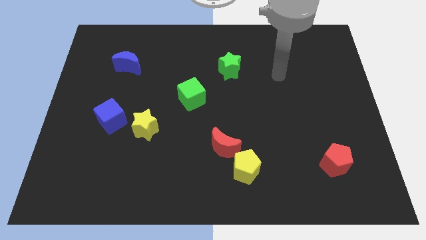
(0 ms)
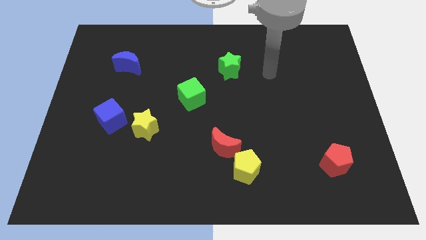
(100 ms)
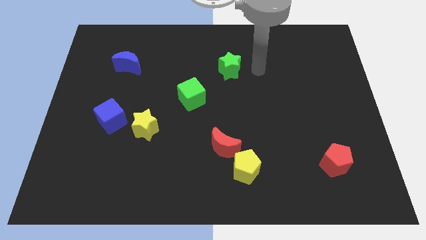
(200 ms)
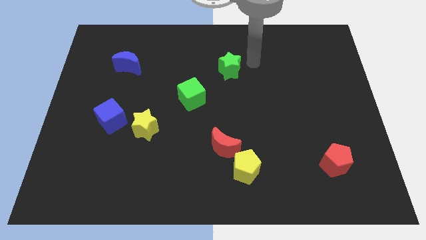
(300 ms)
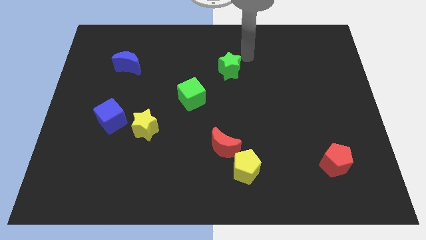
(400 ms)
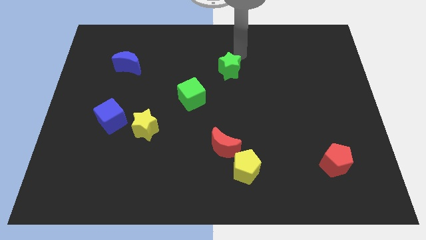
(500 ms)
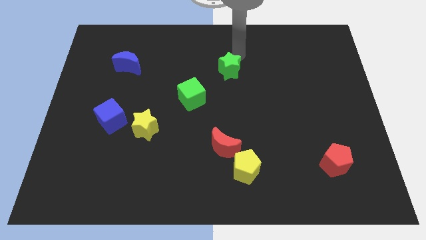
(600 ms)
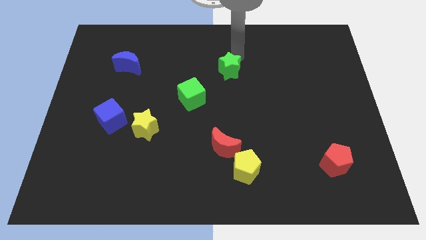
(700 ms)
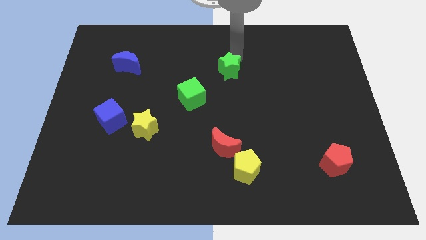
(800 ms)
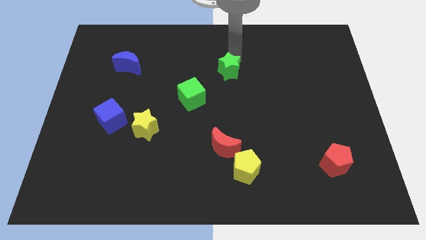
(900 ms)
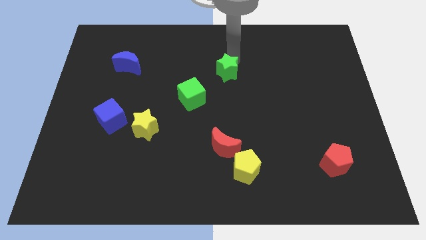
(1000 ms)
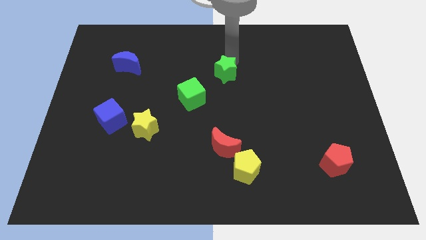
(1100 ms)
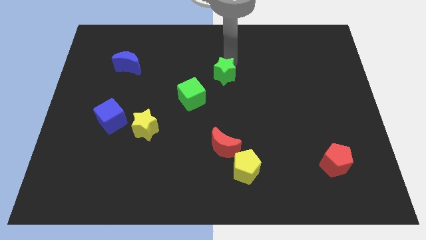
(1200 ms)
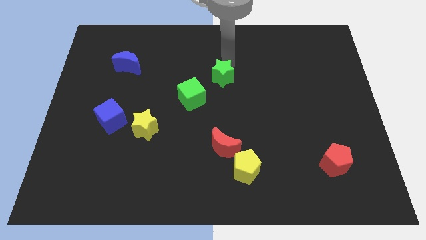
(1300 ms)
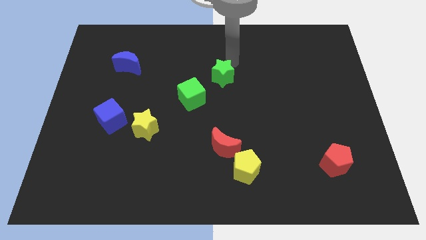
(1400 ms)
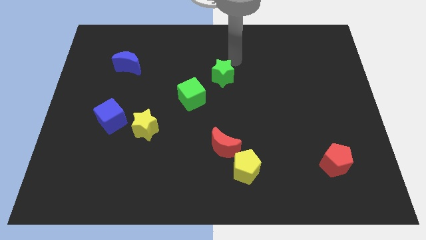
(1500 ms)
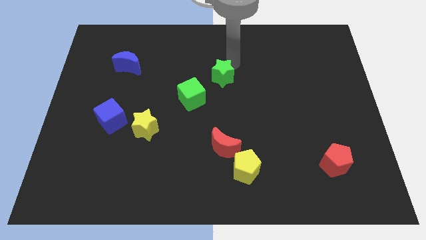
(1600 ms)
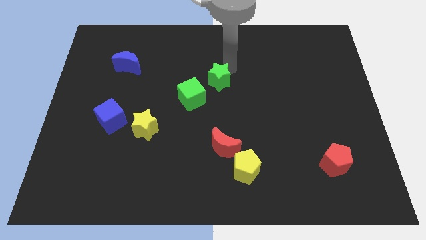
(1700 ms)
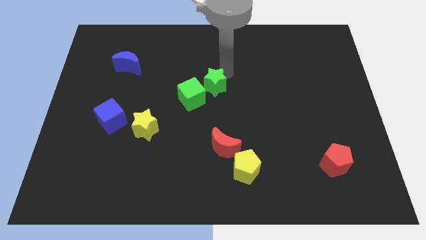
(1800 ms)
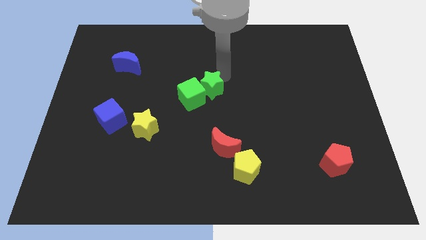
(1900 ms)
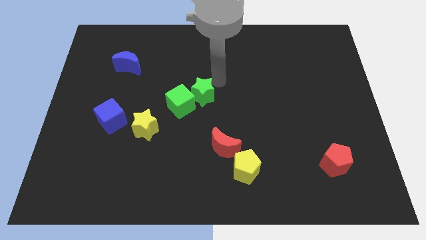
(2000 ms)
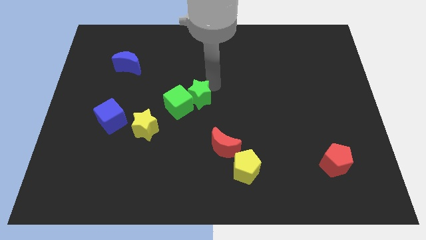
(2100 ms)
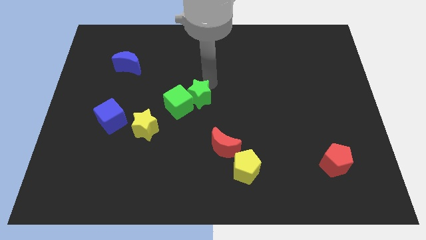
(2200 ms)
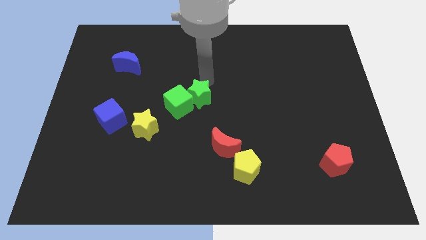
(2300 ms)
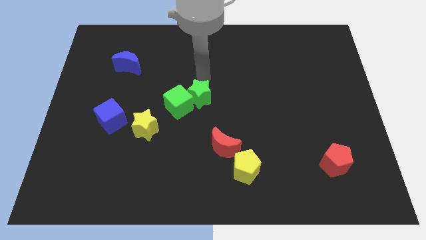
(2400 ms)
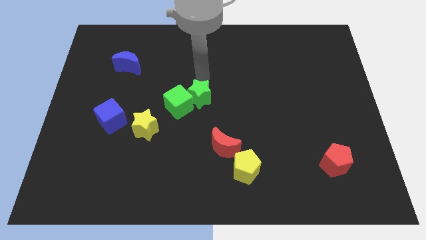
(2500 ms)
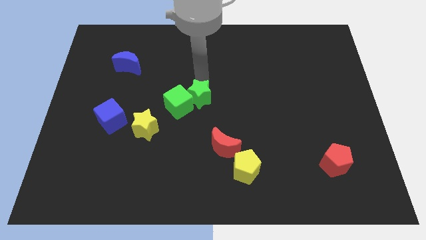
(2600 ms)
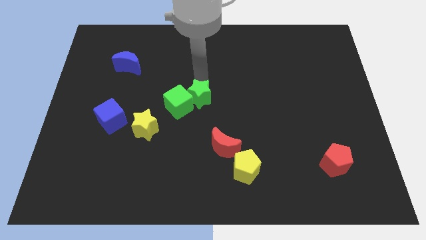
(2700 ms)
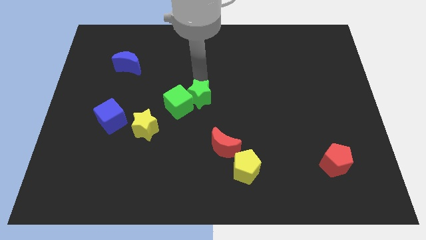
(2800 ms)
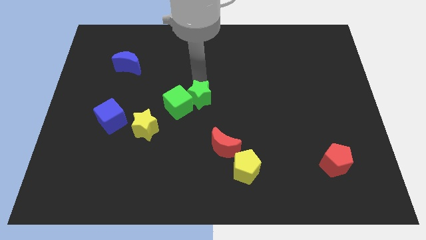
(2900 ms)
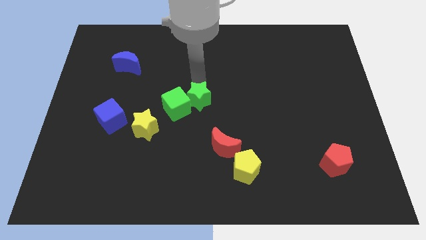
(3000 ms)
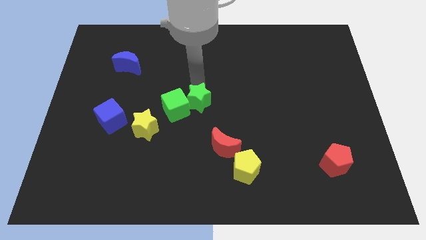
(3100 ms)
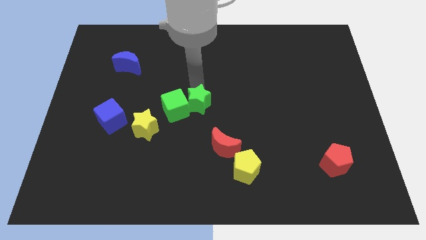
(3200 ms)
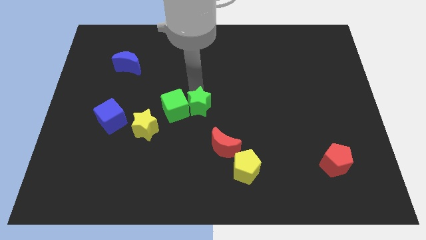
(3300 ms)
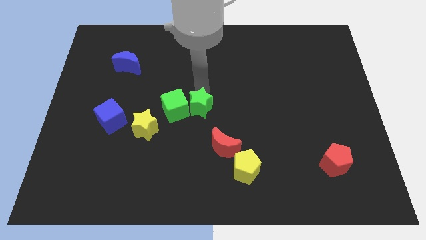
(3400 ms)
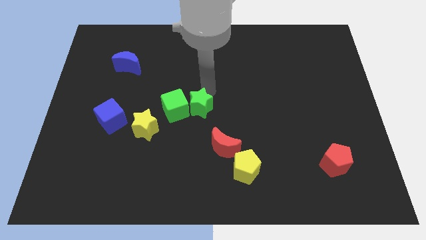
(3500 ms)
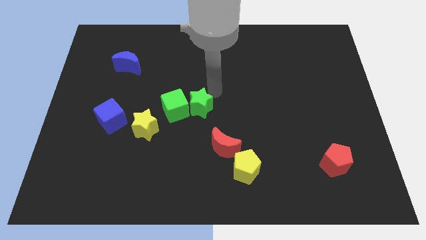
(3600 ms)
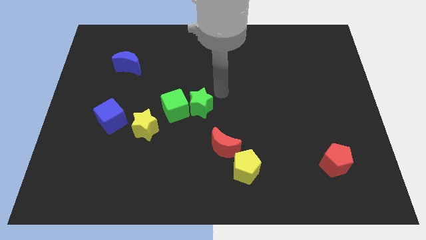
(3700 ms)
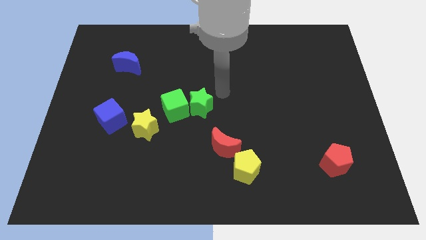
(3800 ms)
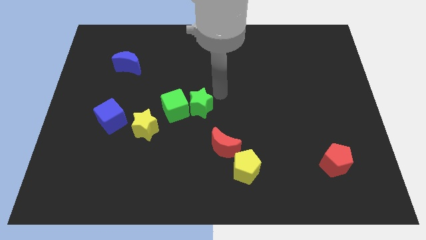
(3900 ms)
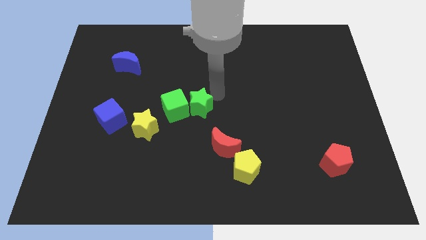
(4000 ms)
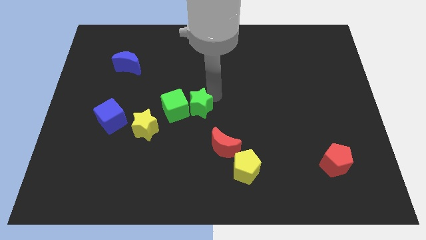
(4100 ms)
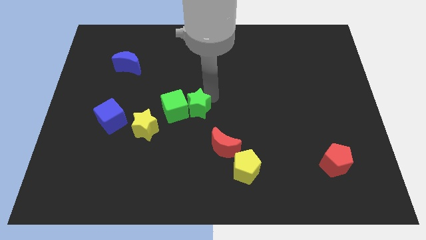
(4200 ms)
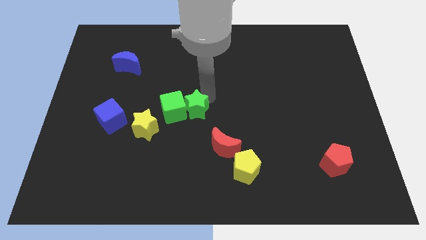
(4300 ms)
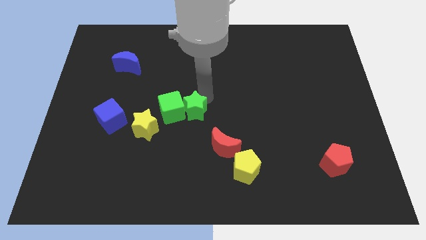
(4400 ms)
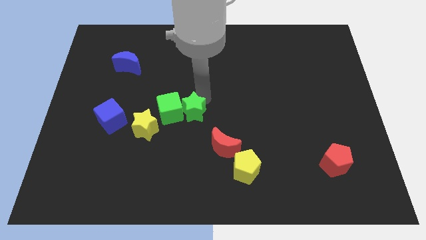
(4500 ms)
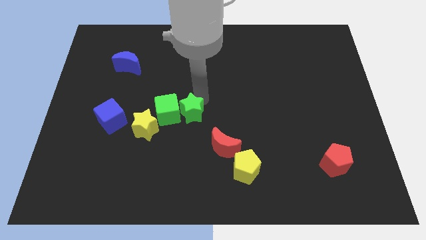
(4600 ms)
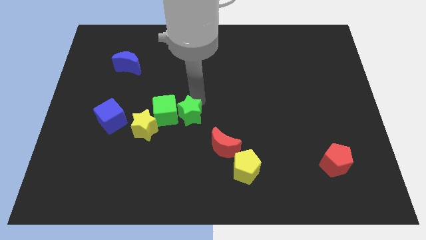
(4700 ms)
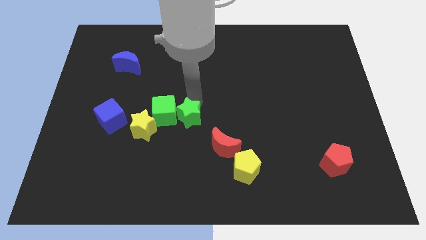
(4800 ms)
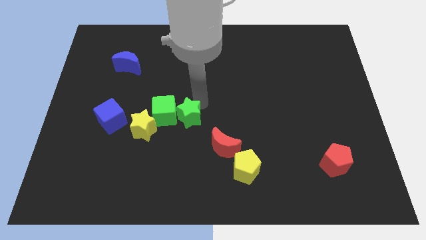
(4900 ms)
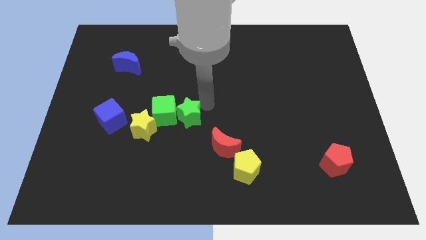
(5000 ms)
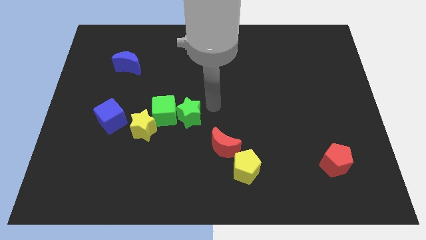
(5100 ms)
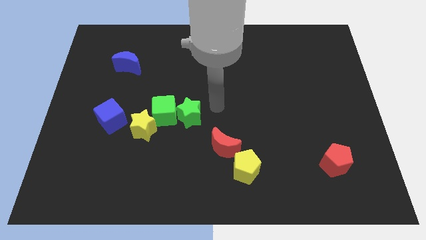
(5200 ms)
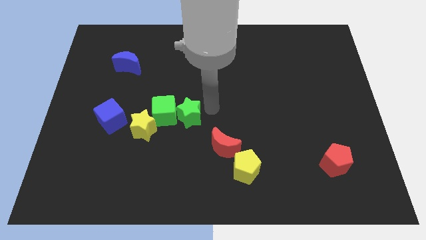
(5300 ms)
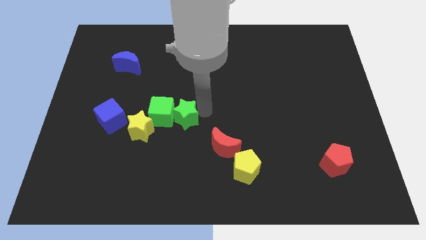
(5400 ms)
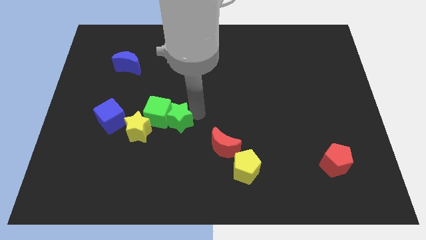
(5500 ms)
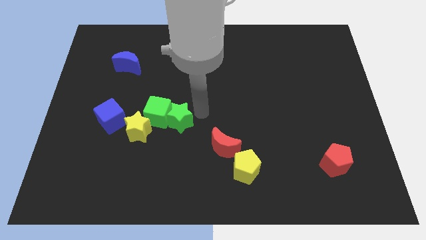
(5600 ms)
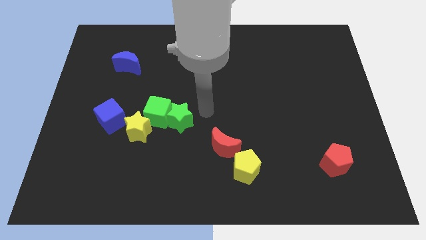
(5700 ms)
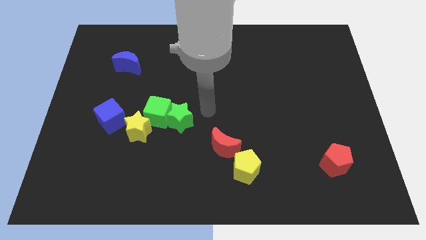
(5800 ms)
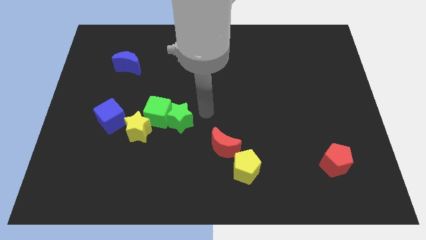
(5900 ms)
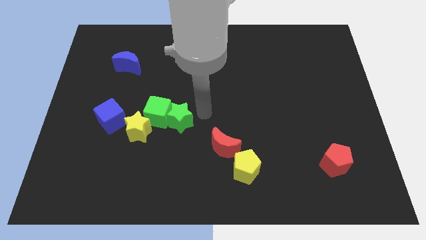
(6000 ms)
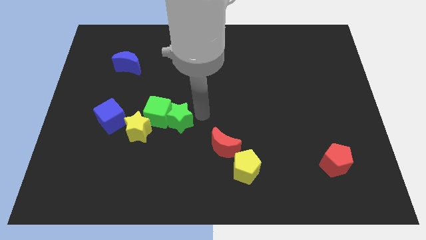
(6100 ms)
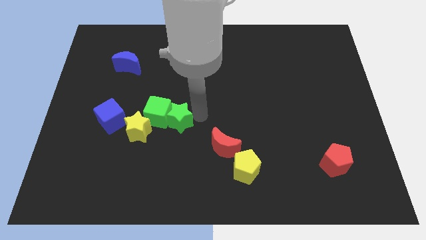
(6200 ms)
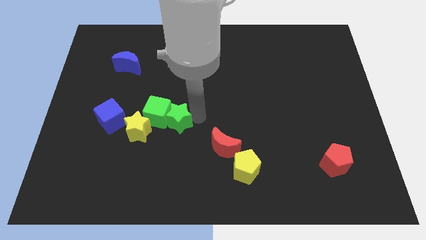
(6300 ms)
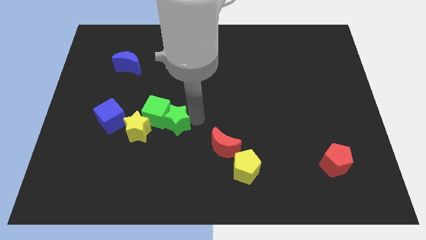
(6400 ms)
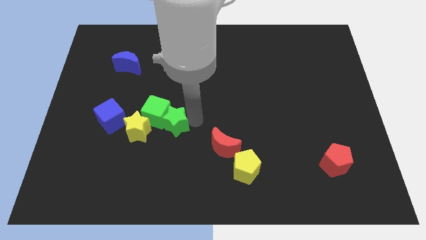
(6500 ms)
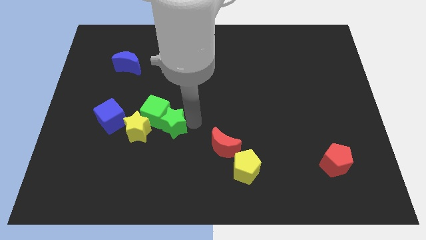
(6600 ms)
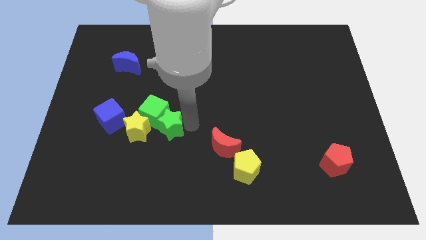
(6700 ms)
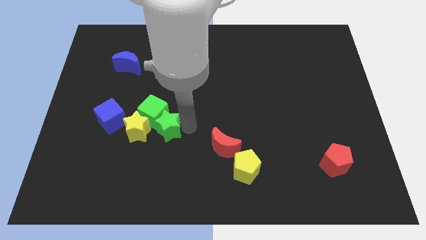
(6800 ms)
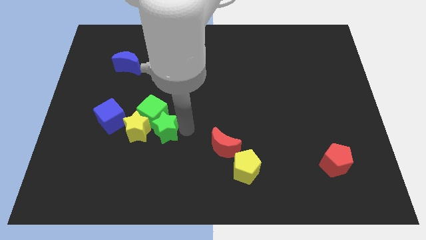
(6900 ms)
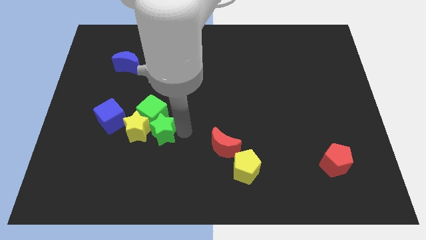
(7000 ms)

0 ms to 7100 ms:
slide the green star to the yellow star
